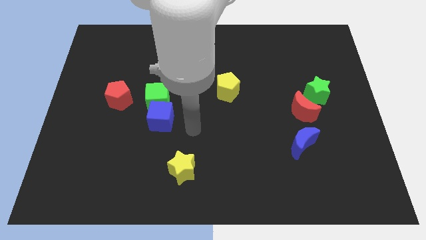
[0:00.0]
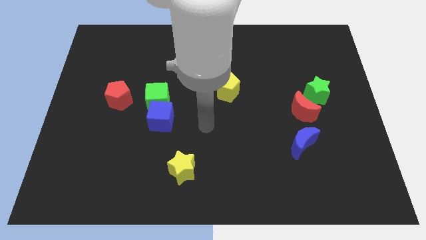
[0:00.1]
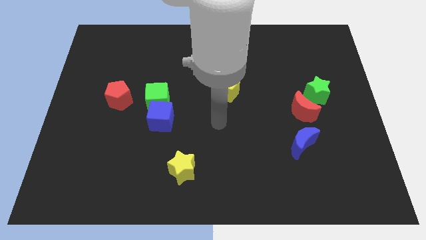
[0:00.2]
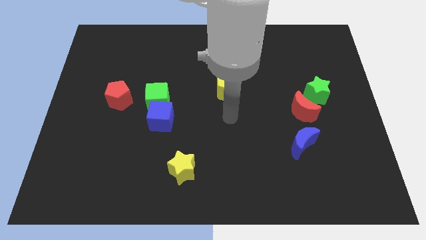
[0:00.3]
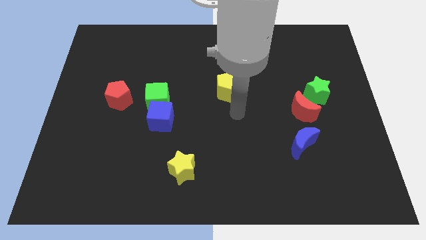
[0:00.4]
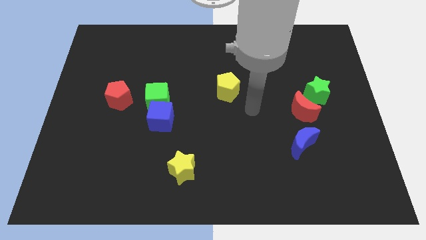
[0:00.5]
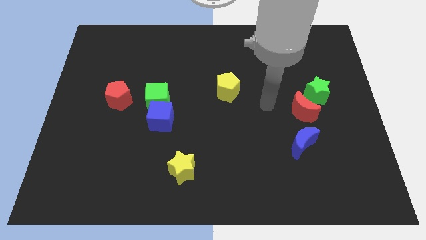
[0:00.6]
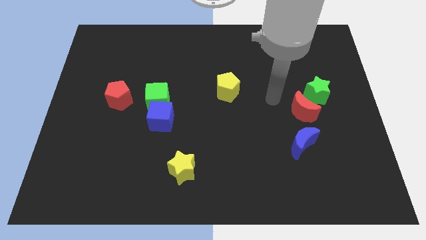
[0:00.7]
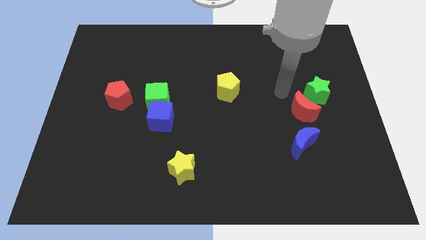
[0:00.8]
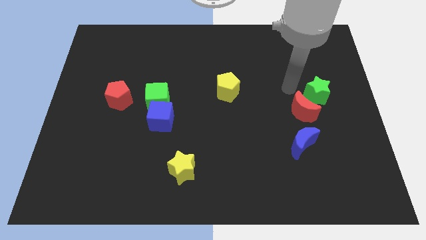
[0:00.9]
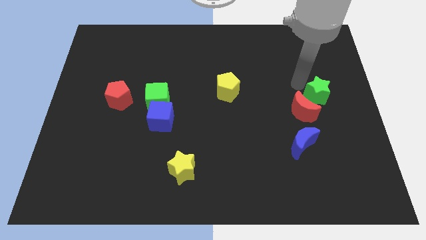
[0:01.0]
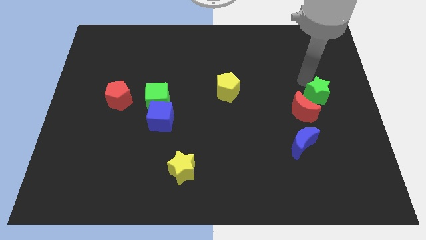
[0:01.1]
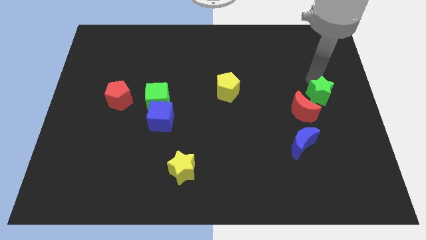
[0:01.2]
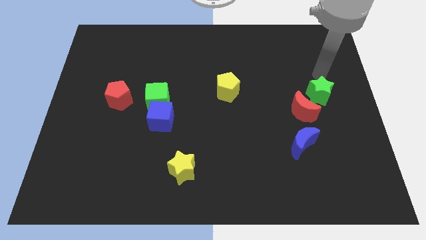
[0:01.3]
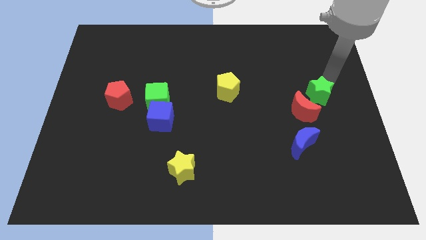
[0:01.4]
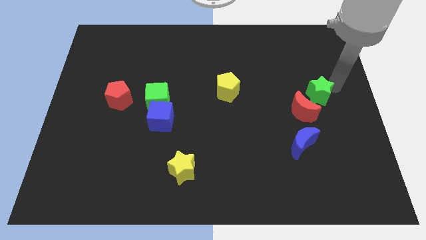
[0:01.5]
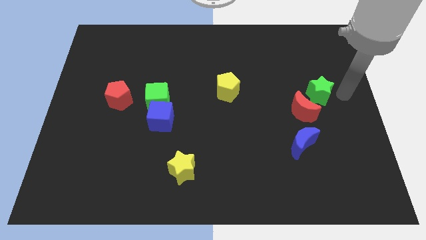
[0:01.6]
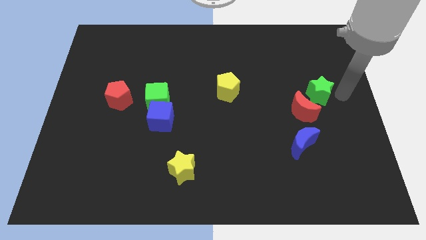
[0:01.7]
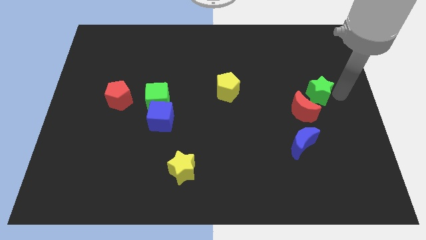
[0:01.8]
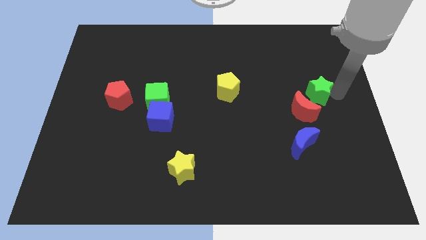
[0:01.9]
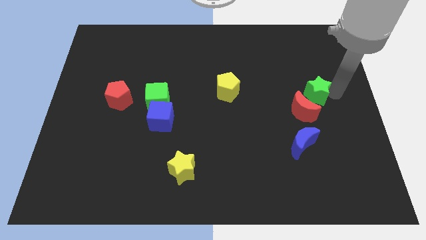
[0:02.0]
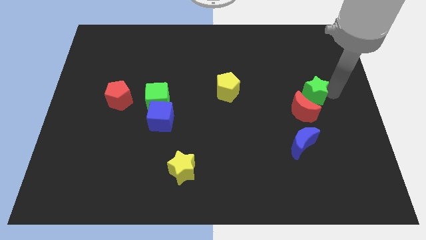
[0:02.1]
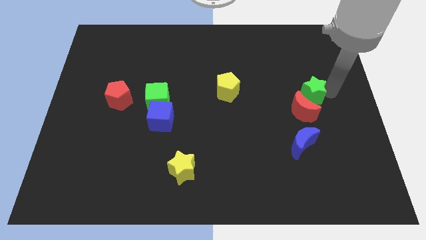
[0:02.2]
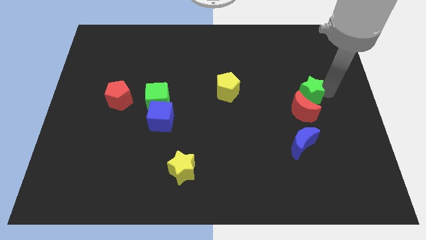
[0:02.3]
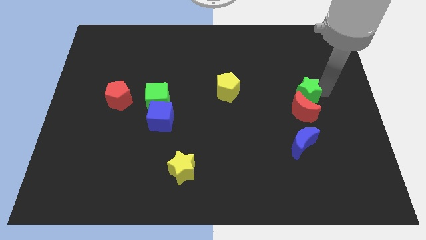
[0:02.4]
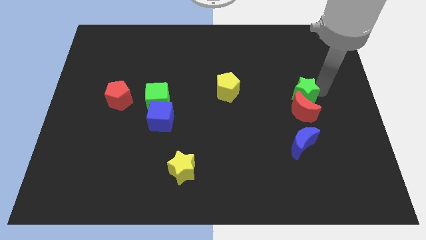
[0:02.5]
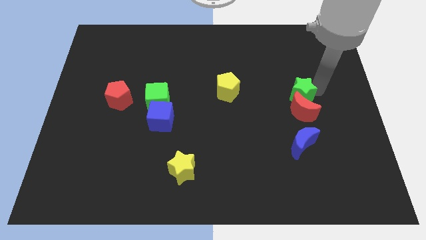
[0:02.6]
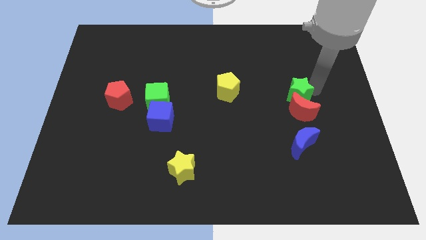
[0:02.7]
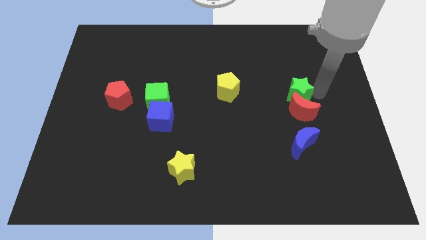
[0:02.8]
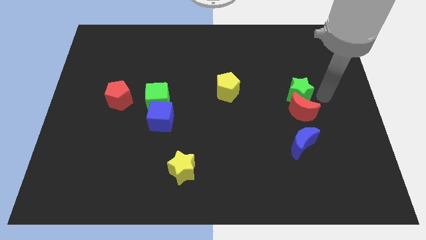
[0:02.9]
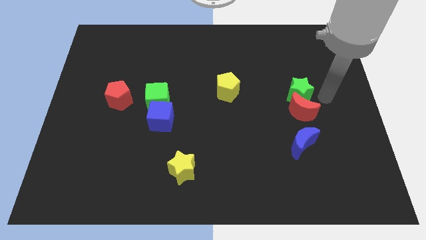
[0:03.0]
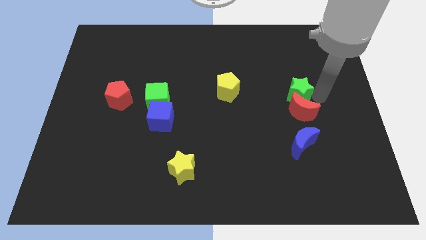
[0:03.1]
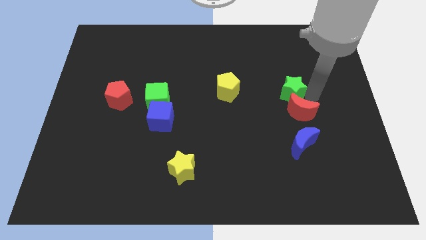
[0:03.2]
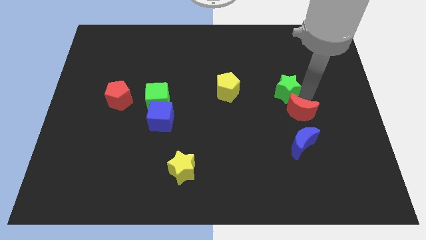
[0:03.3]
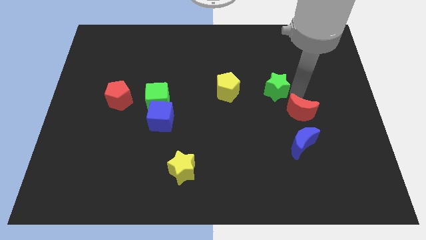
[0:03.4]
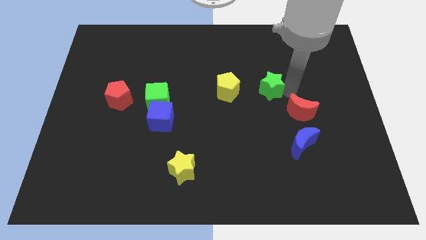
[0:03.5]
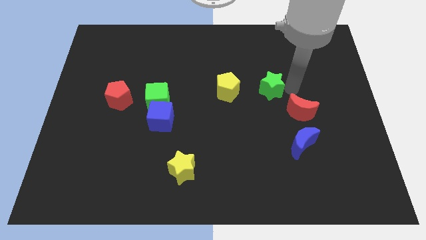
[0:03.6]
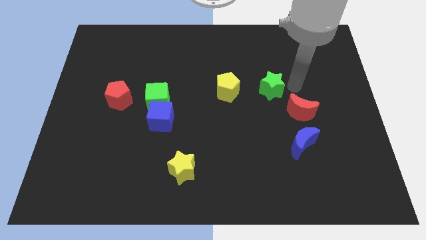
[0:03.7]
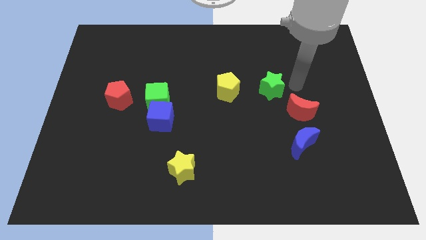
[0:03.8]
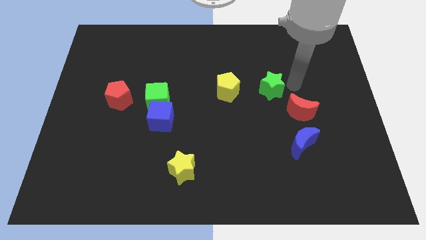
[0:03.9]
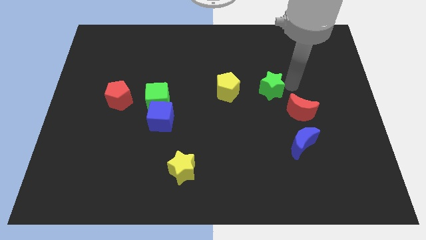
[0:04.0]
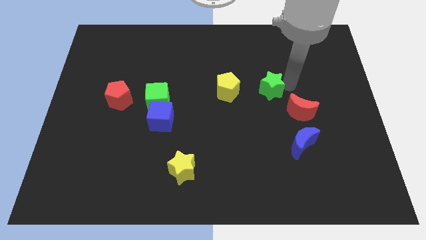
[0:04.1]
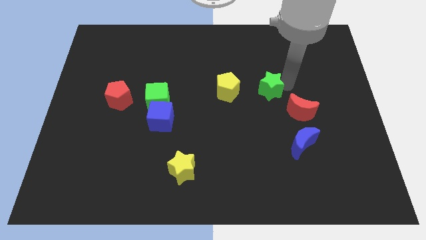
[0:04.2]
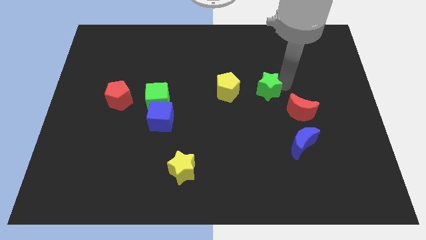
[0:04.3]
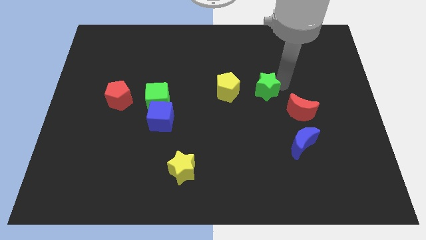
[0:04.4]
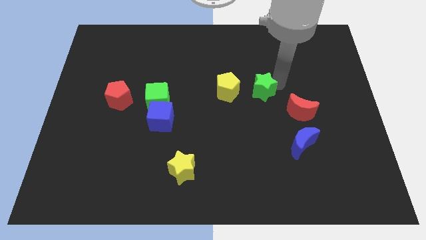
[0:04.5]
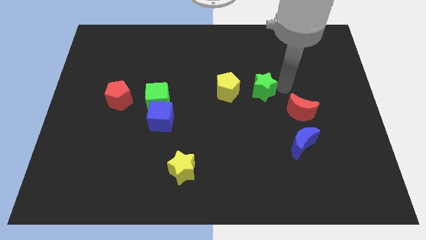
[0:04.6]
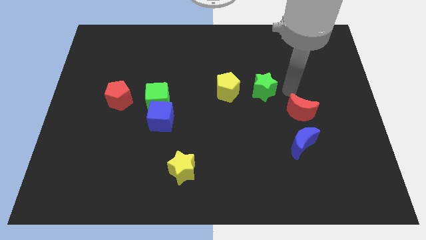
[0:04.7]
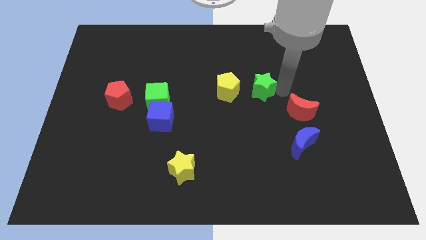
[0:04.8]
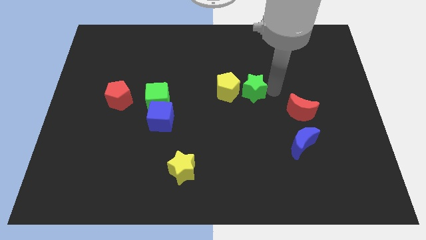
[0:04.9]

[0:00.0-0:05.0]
push the green star close to the yellow pentagon

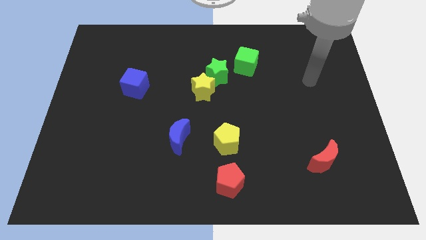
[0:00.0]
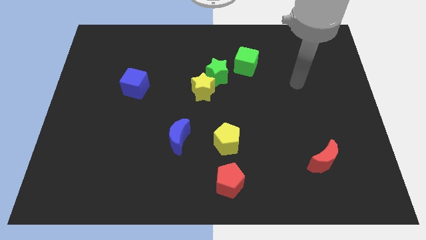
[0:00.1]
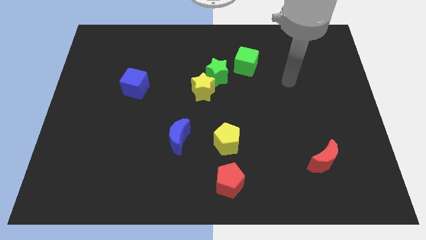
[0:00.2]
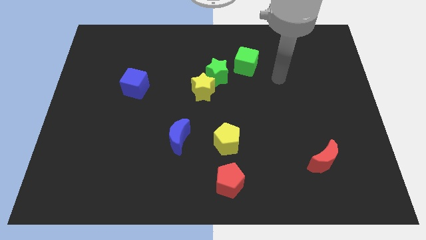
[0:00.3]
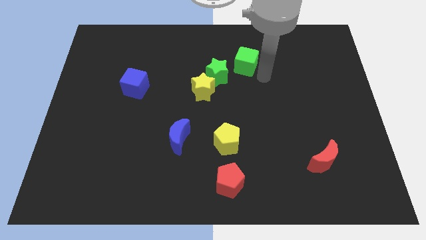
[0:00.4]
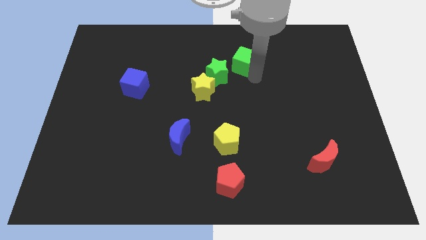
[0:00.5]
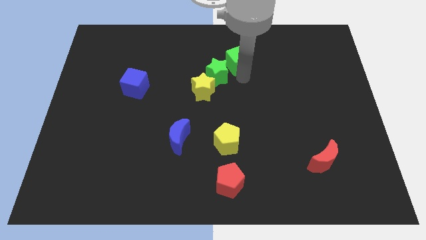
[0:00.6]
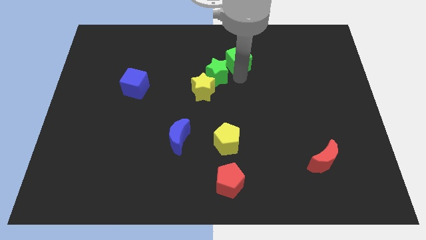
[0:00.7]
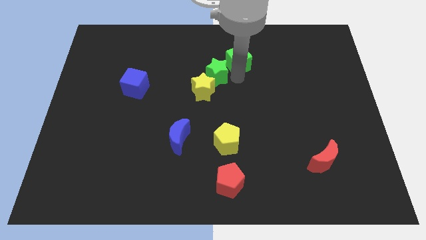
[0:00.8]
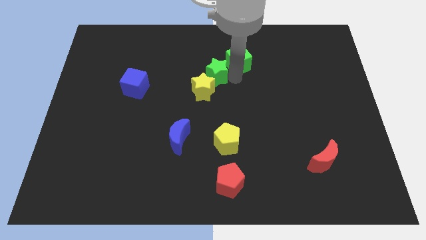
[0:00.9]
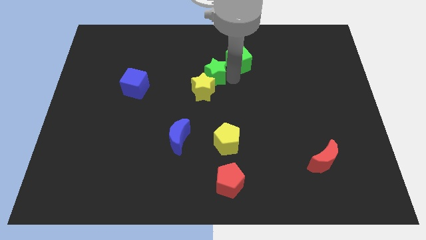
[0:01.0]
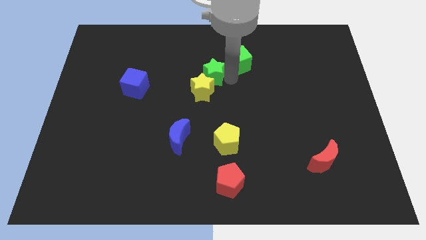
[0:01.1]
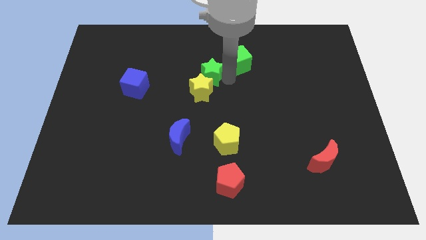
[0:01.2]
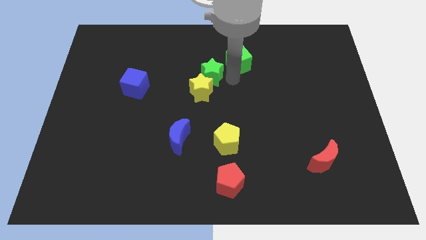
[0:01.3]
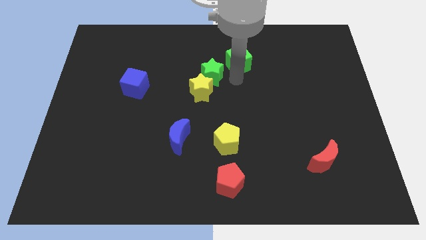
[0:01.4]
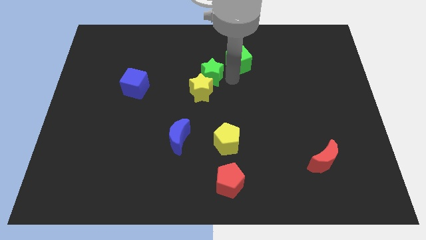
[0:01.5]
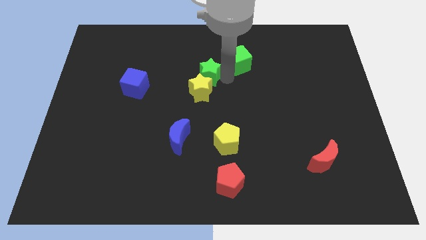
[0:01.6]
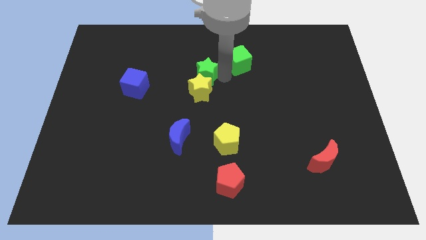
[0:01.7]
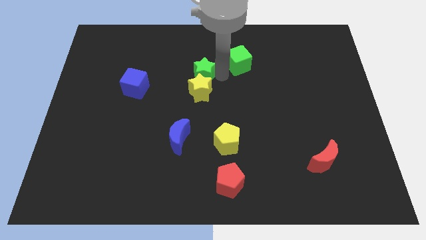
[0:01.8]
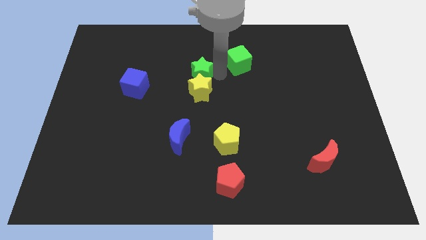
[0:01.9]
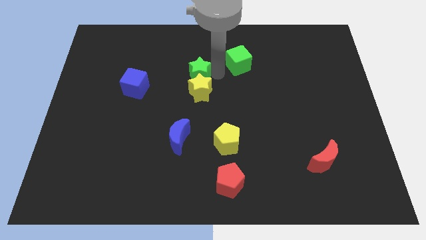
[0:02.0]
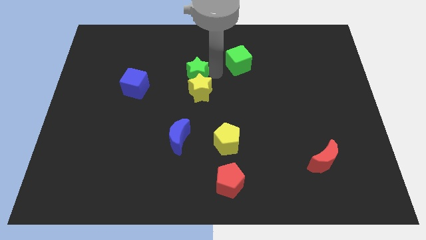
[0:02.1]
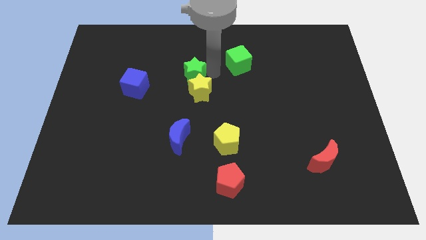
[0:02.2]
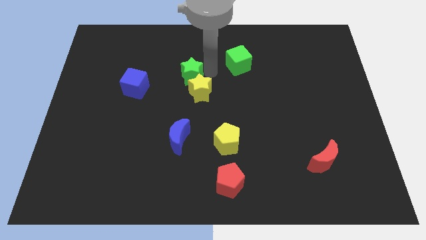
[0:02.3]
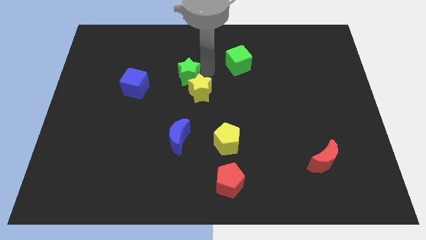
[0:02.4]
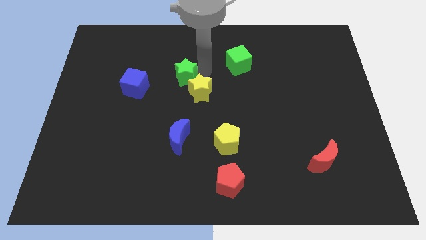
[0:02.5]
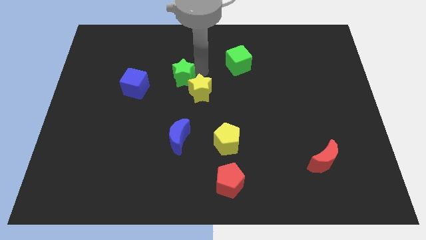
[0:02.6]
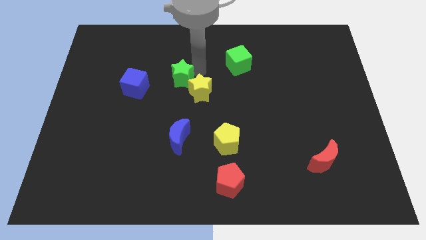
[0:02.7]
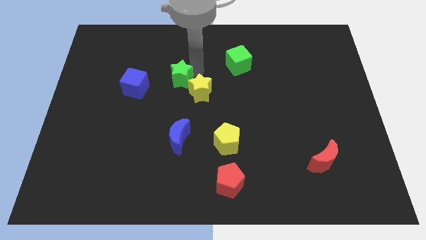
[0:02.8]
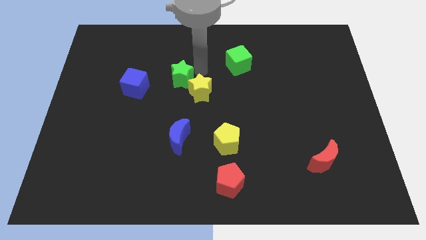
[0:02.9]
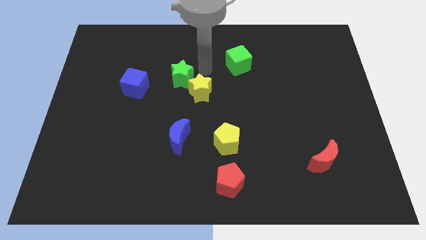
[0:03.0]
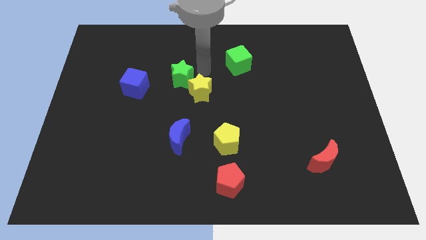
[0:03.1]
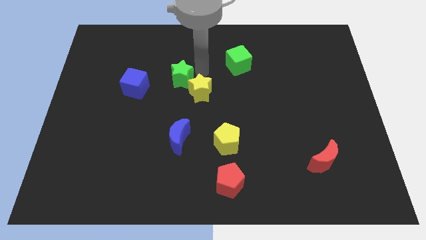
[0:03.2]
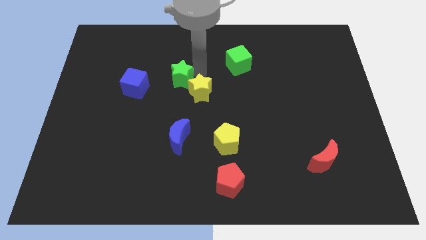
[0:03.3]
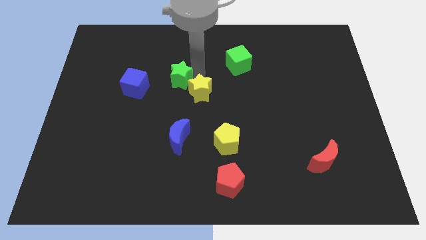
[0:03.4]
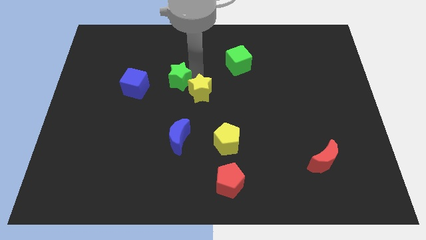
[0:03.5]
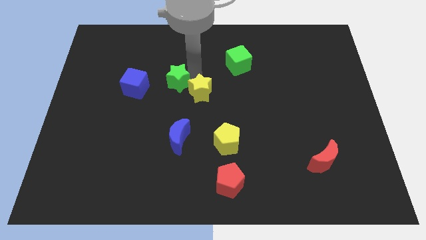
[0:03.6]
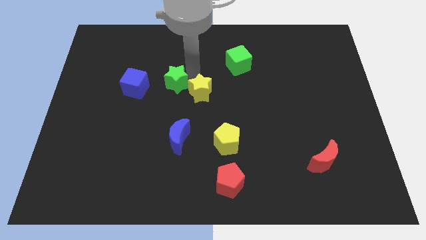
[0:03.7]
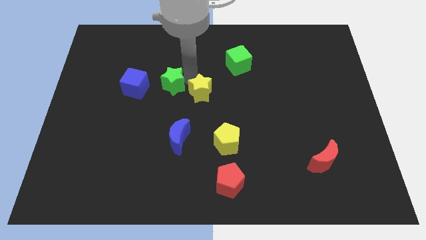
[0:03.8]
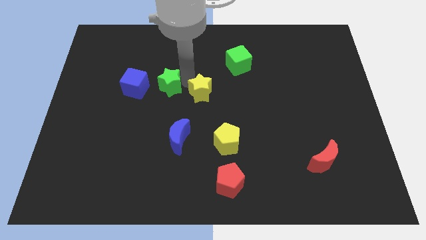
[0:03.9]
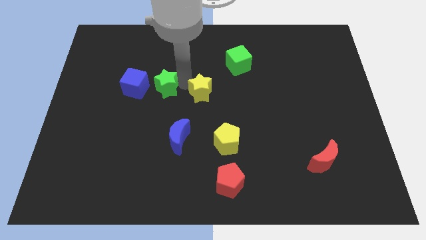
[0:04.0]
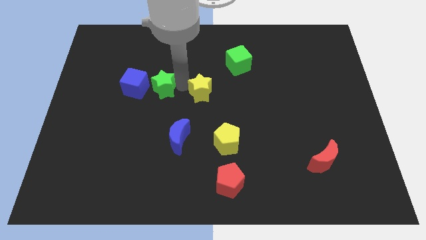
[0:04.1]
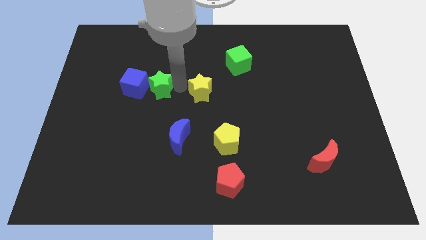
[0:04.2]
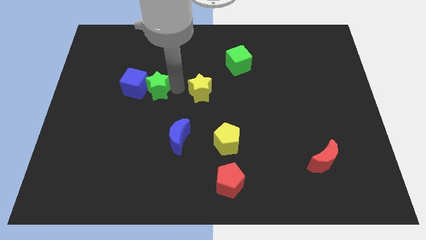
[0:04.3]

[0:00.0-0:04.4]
push the green star next to the blue cube
